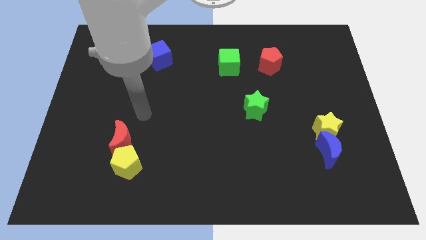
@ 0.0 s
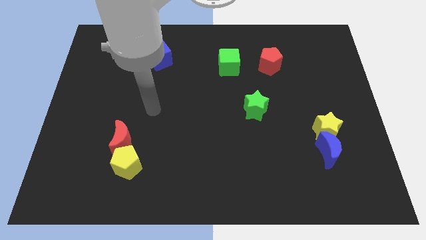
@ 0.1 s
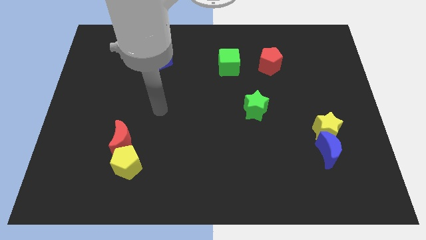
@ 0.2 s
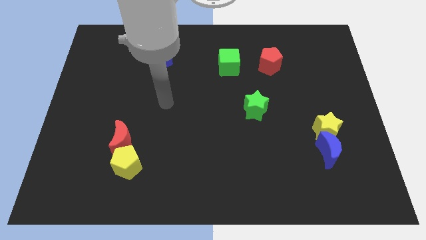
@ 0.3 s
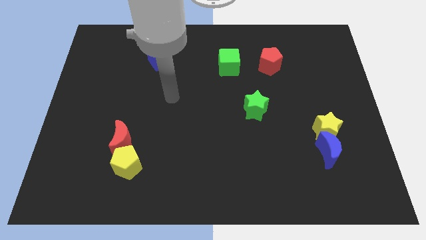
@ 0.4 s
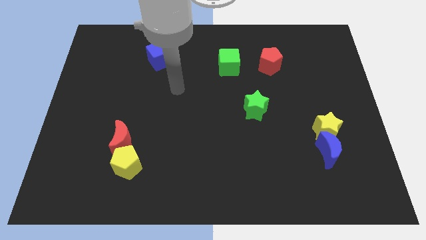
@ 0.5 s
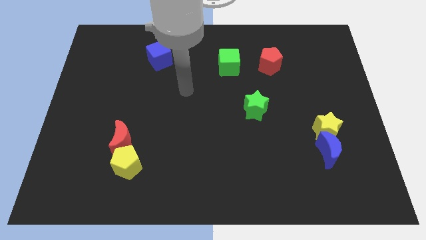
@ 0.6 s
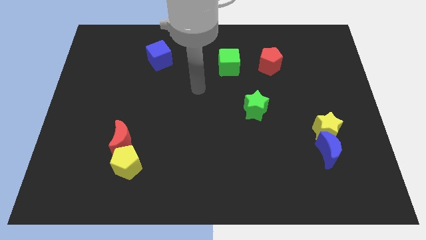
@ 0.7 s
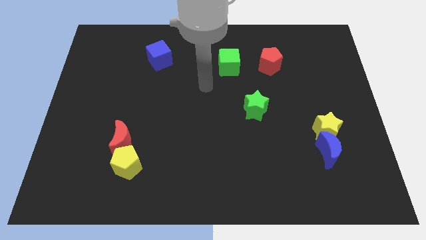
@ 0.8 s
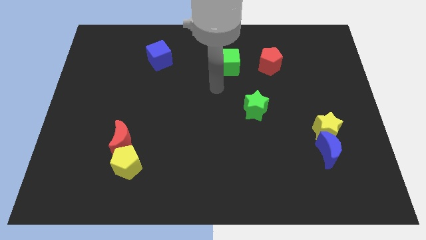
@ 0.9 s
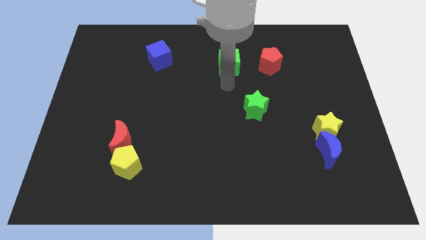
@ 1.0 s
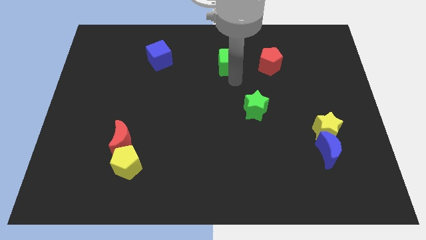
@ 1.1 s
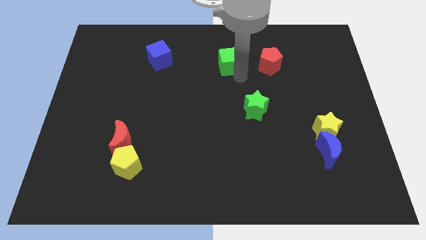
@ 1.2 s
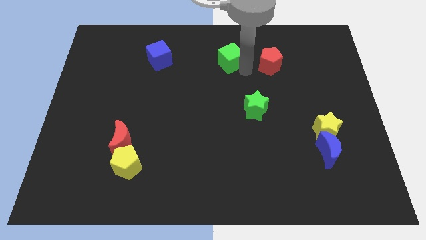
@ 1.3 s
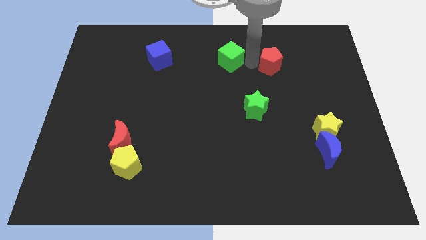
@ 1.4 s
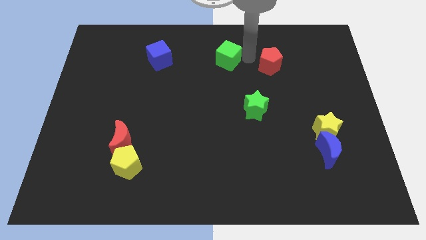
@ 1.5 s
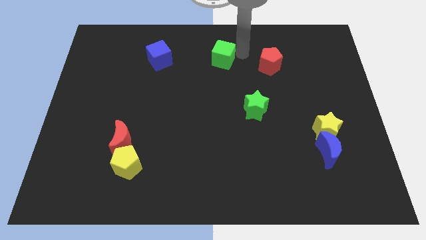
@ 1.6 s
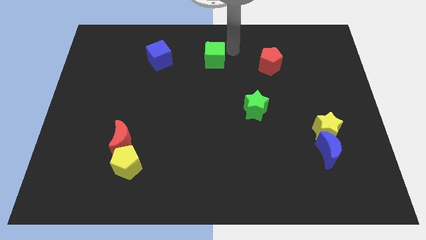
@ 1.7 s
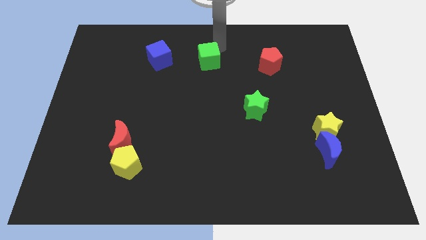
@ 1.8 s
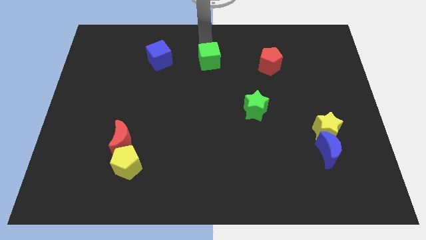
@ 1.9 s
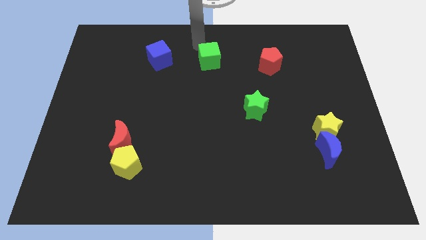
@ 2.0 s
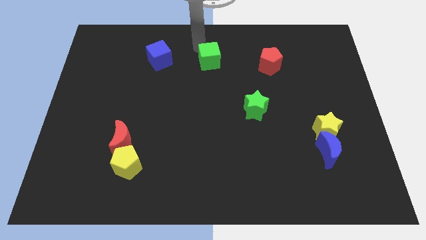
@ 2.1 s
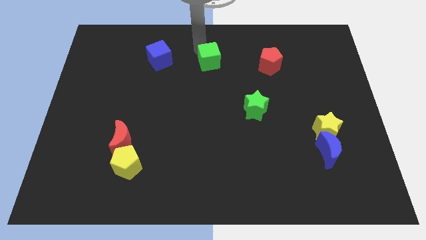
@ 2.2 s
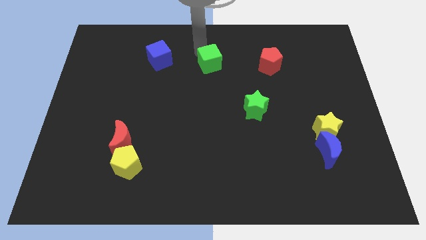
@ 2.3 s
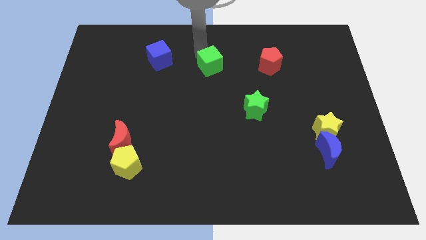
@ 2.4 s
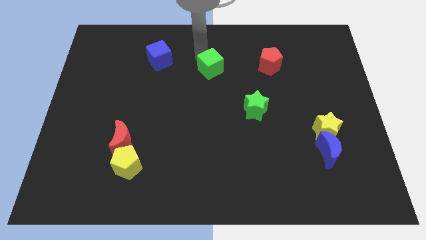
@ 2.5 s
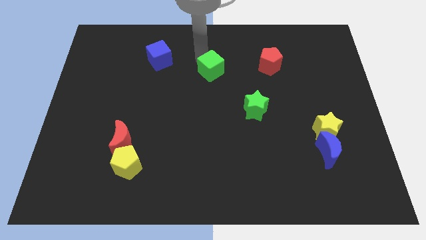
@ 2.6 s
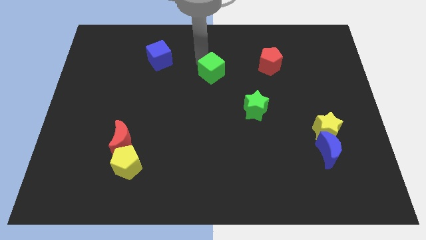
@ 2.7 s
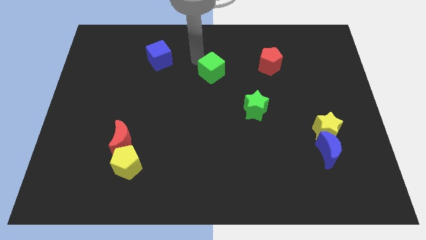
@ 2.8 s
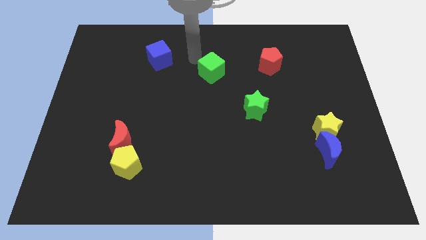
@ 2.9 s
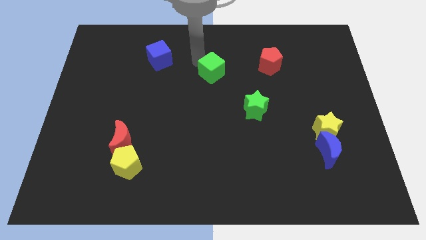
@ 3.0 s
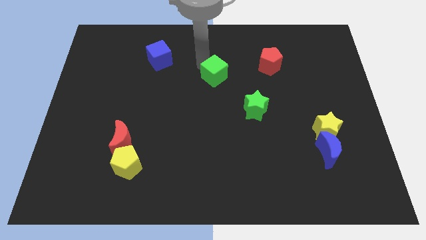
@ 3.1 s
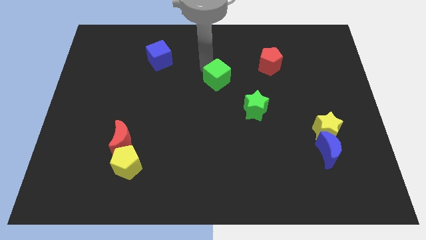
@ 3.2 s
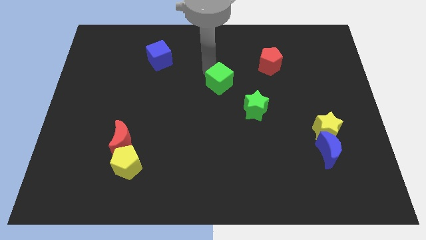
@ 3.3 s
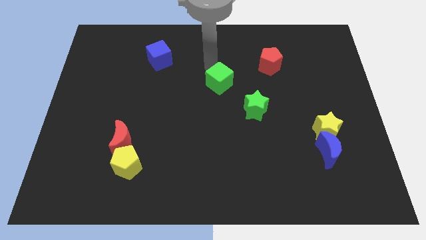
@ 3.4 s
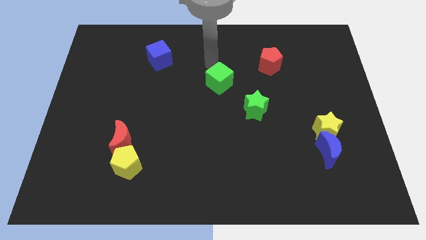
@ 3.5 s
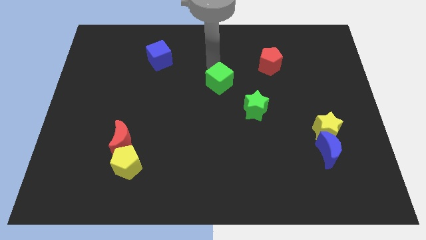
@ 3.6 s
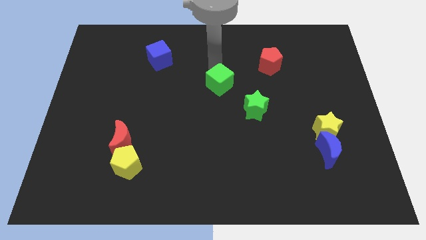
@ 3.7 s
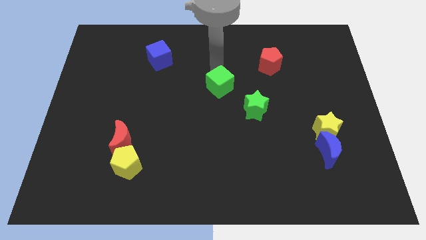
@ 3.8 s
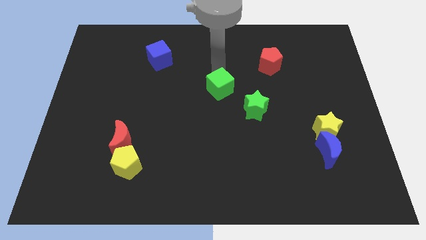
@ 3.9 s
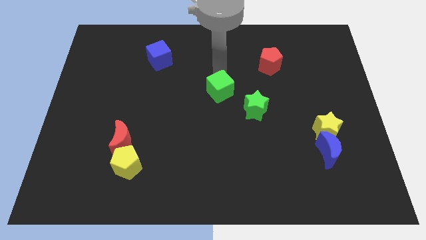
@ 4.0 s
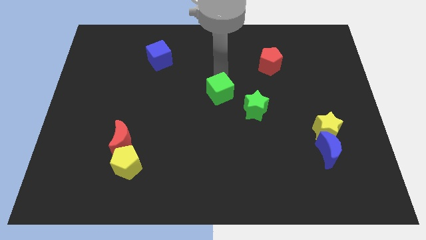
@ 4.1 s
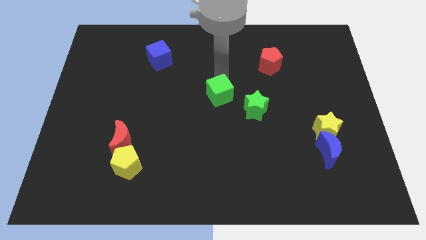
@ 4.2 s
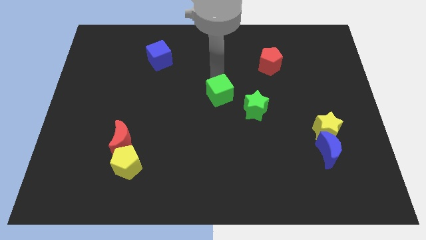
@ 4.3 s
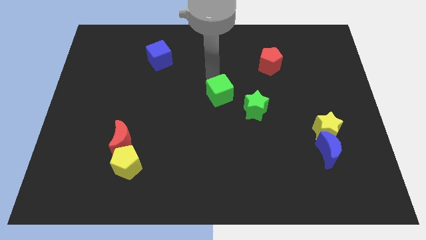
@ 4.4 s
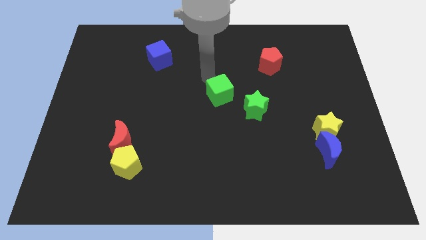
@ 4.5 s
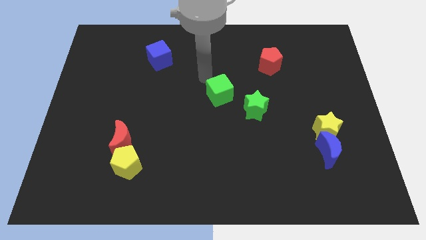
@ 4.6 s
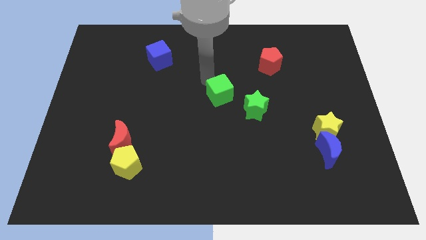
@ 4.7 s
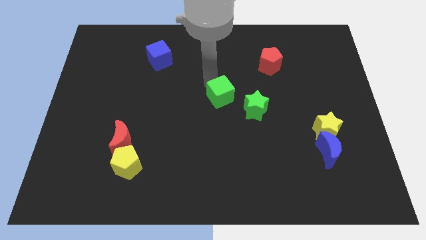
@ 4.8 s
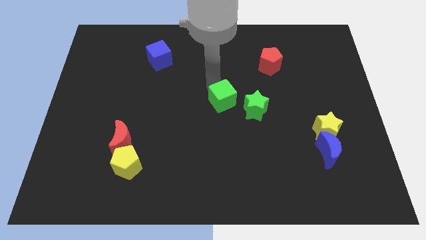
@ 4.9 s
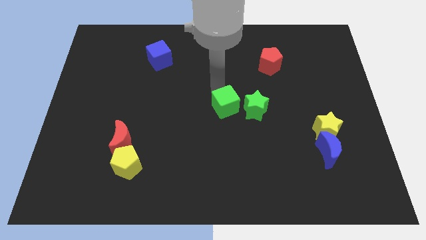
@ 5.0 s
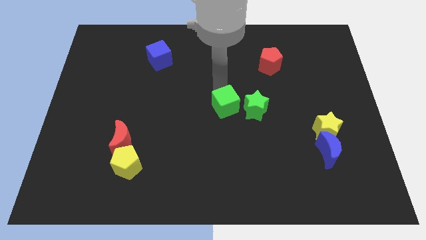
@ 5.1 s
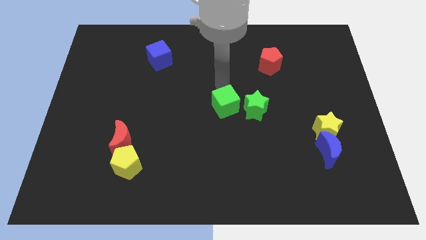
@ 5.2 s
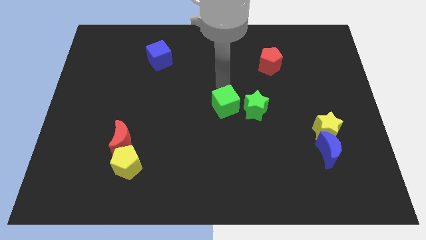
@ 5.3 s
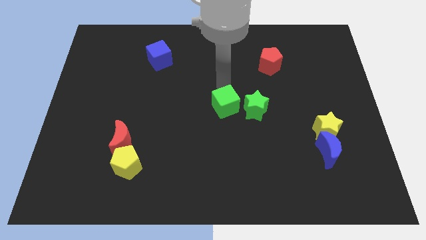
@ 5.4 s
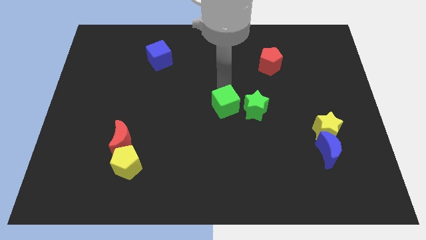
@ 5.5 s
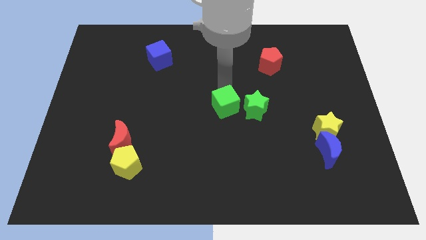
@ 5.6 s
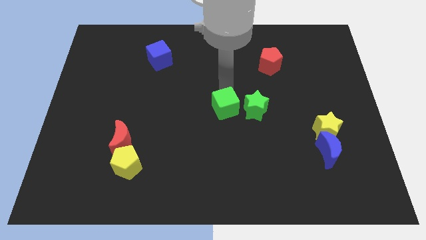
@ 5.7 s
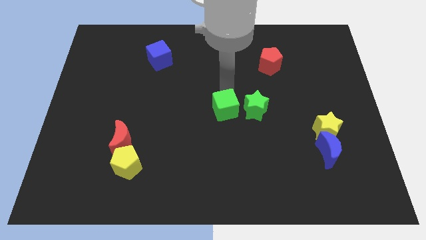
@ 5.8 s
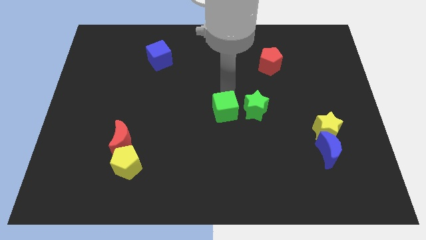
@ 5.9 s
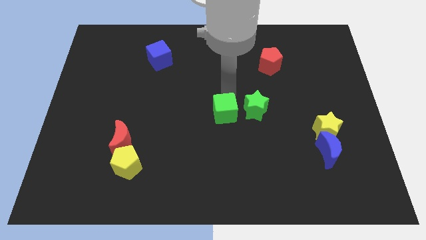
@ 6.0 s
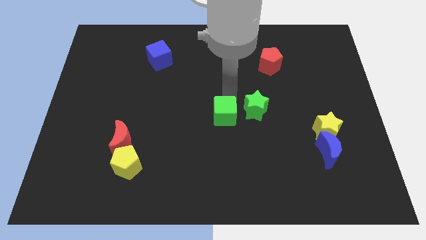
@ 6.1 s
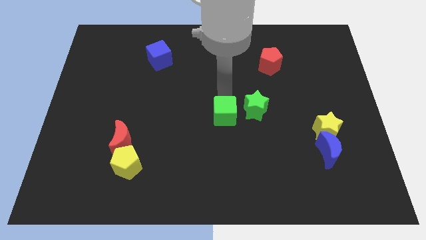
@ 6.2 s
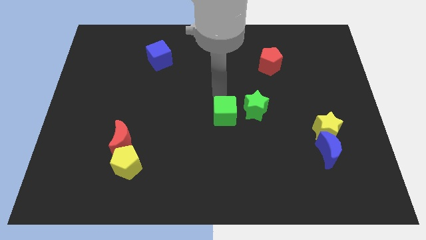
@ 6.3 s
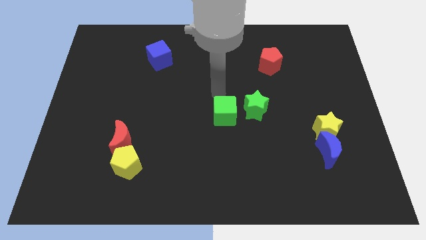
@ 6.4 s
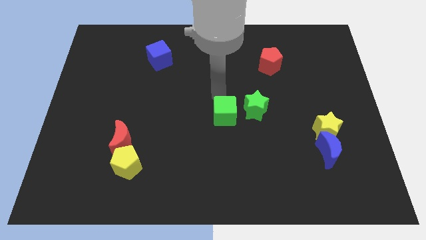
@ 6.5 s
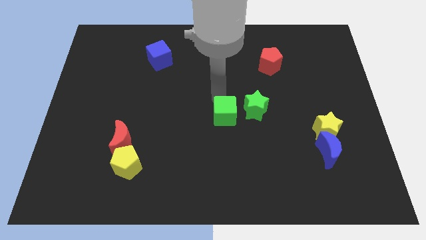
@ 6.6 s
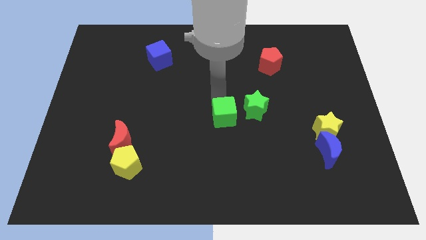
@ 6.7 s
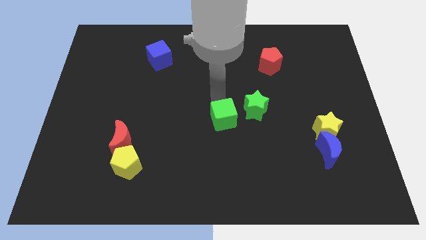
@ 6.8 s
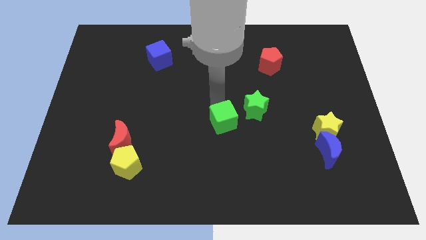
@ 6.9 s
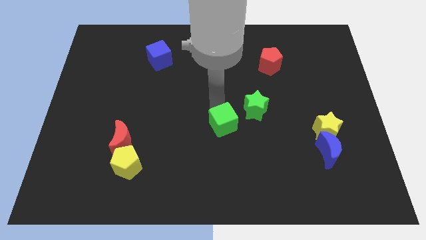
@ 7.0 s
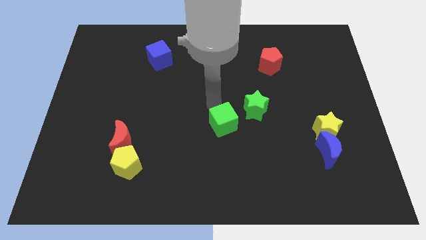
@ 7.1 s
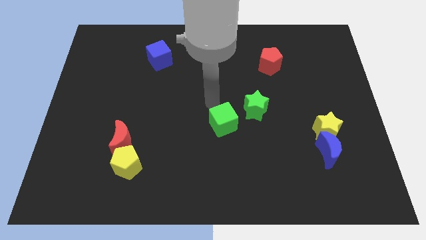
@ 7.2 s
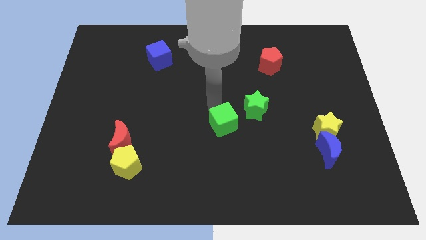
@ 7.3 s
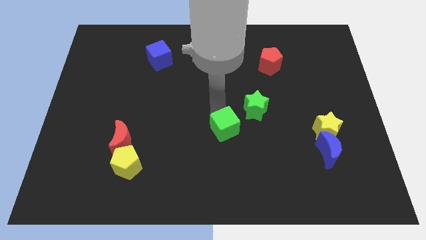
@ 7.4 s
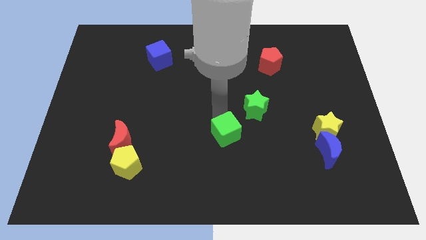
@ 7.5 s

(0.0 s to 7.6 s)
move the green cube down

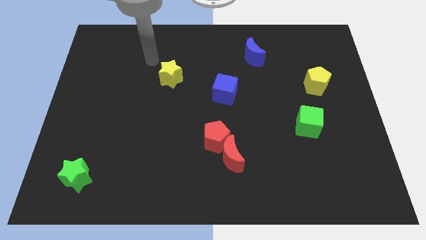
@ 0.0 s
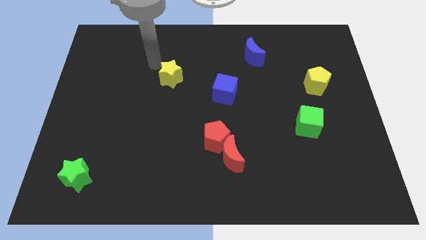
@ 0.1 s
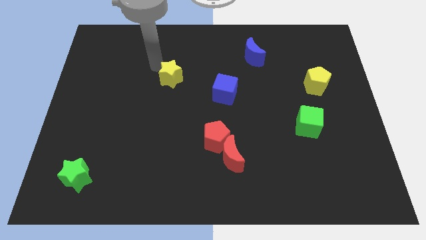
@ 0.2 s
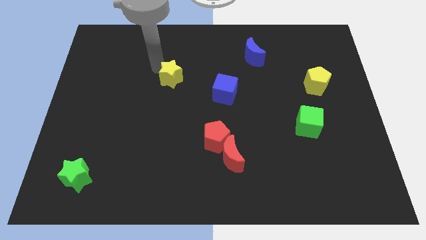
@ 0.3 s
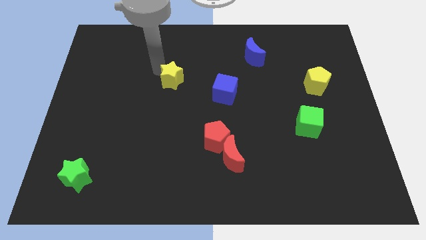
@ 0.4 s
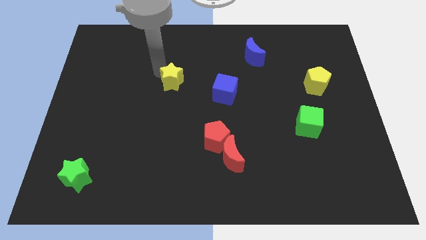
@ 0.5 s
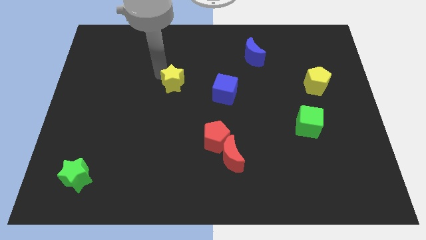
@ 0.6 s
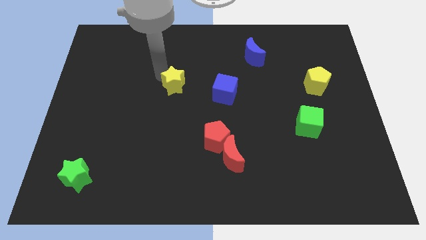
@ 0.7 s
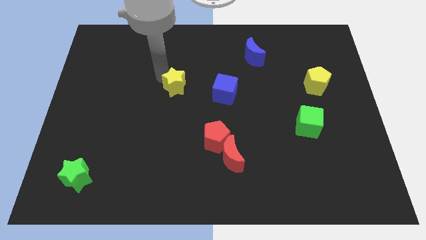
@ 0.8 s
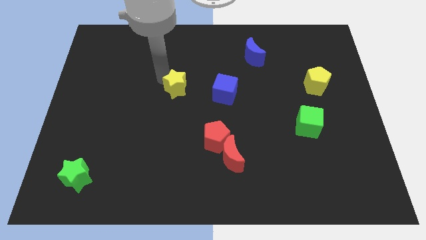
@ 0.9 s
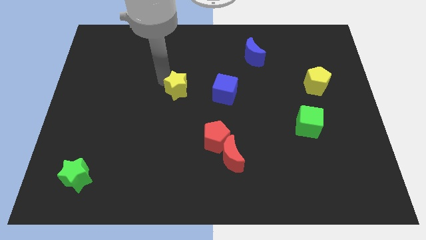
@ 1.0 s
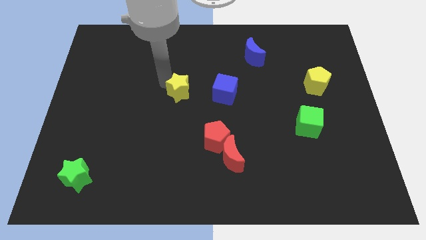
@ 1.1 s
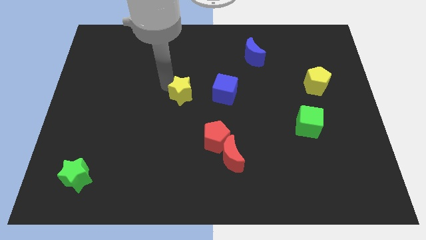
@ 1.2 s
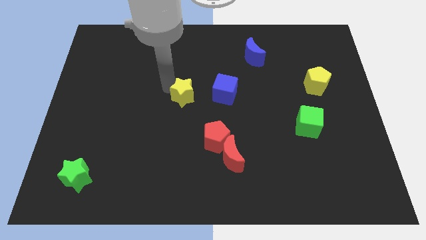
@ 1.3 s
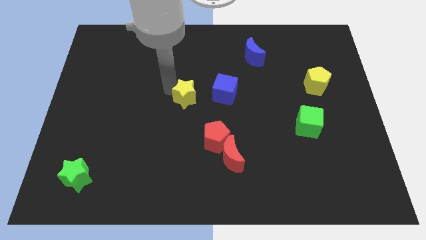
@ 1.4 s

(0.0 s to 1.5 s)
move the yellow star slightly diagonally downwards and to the right
